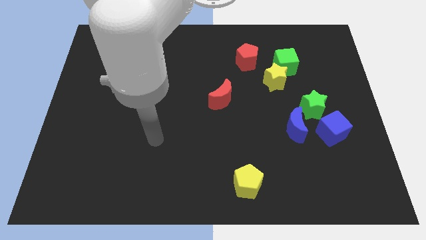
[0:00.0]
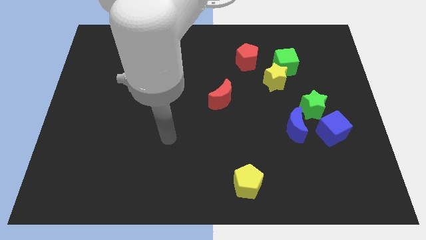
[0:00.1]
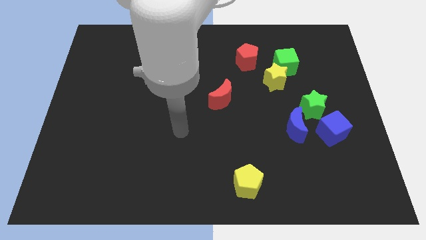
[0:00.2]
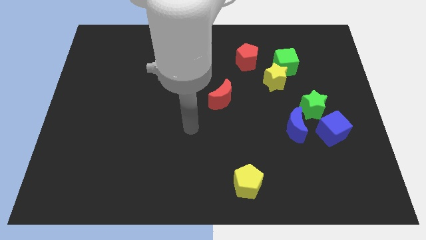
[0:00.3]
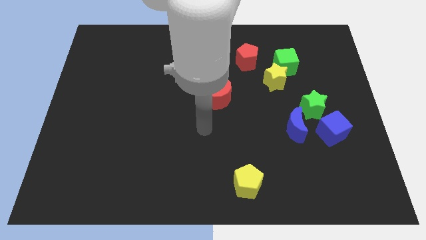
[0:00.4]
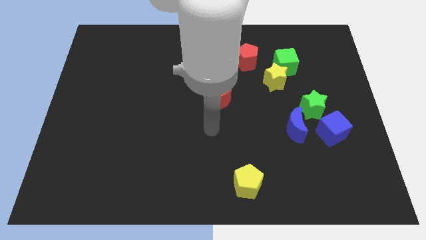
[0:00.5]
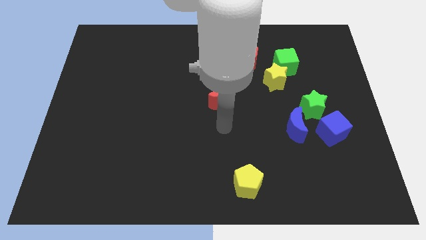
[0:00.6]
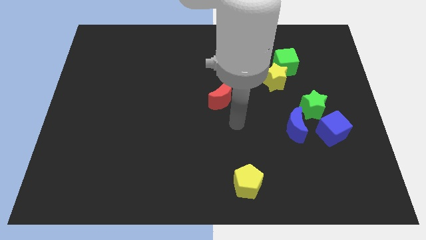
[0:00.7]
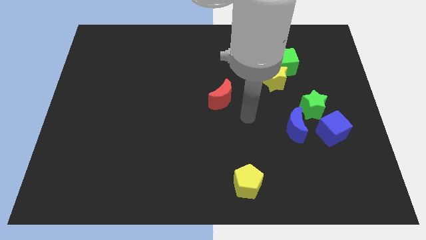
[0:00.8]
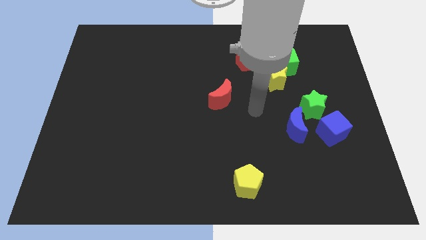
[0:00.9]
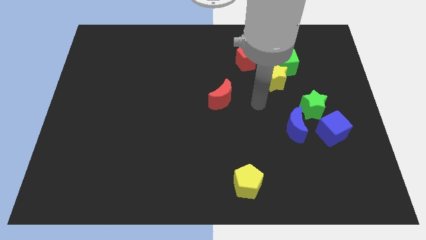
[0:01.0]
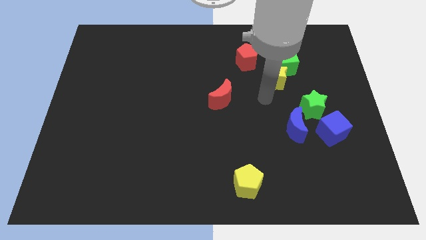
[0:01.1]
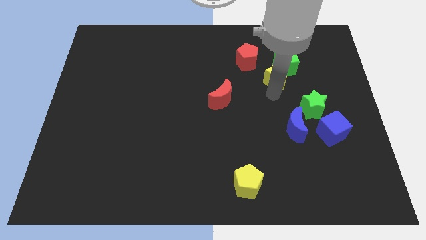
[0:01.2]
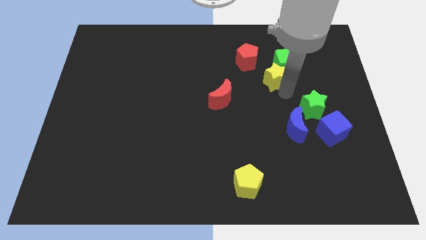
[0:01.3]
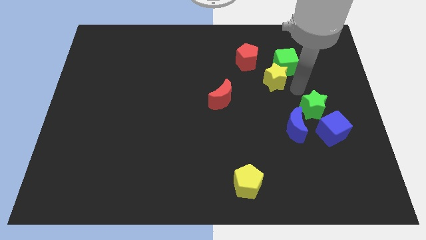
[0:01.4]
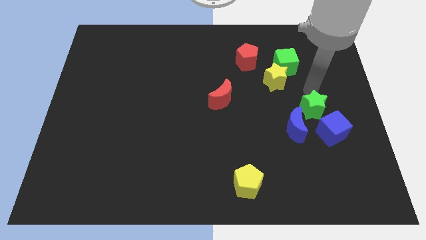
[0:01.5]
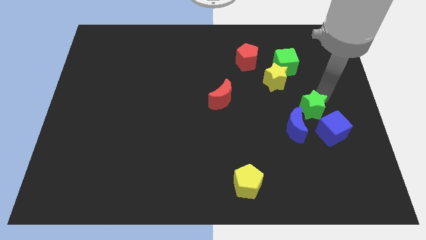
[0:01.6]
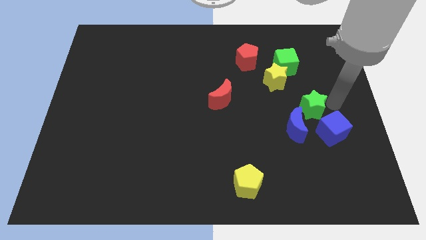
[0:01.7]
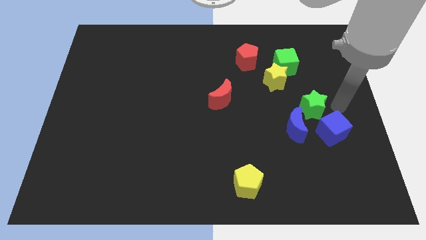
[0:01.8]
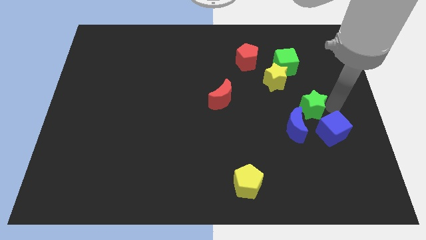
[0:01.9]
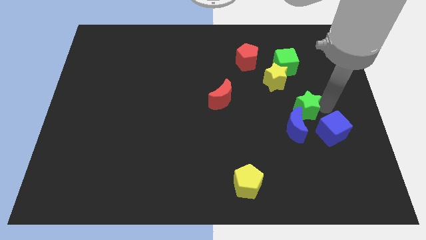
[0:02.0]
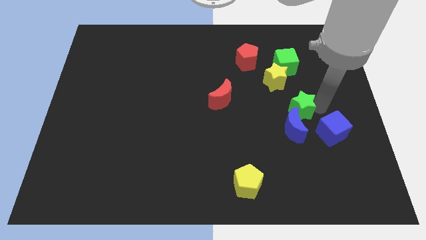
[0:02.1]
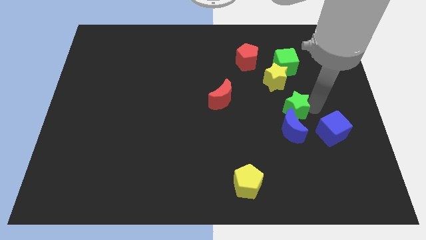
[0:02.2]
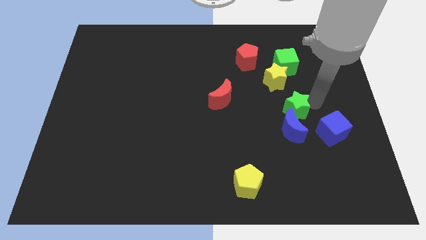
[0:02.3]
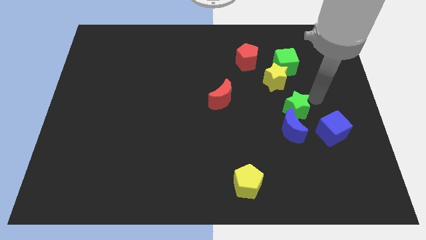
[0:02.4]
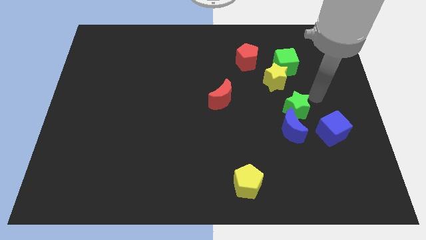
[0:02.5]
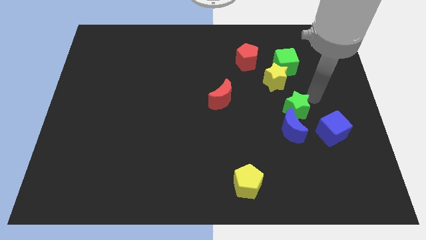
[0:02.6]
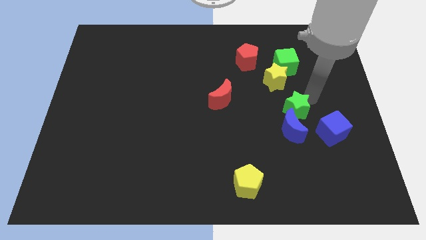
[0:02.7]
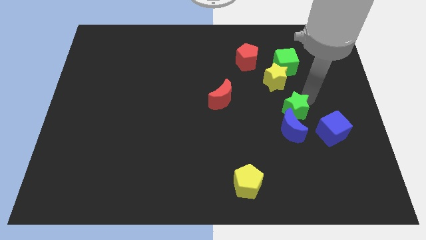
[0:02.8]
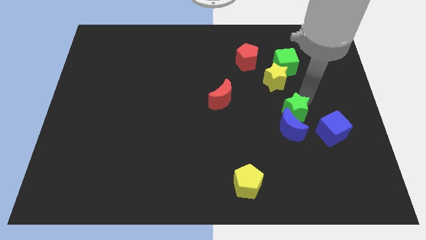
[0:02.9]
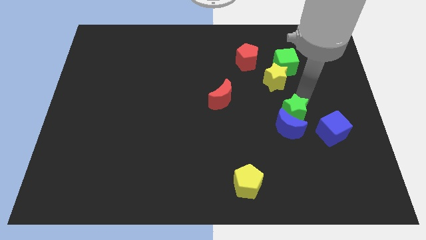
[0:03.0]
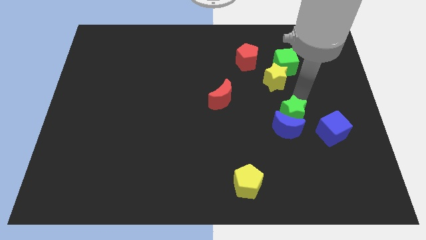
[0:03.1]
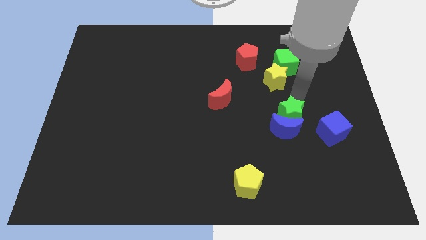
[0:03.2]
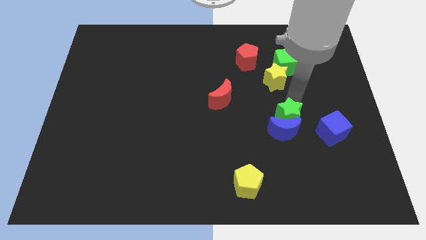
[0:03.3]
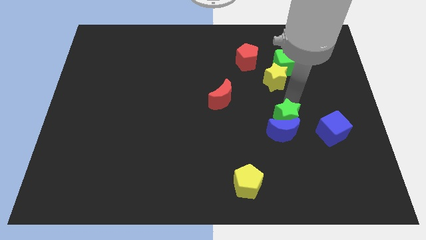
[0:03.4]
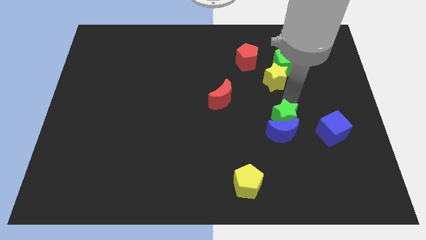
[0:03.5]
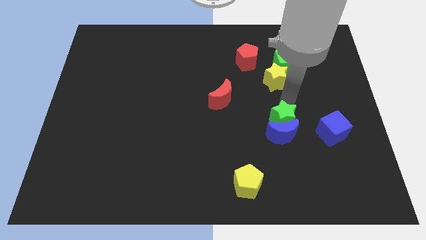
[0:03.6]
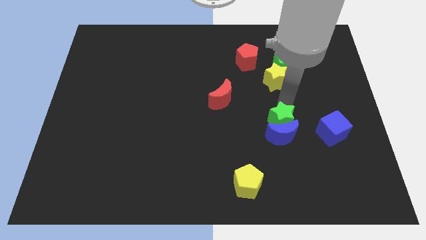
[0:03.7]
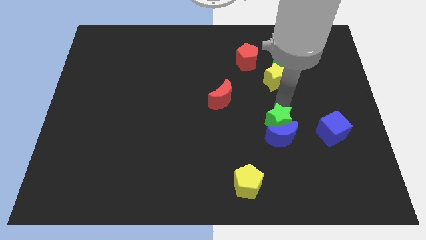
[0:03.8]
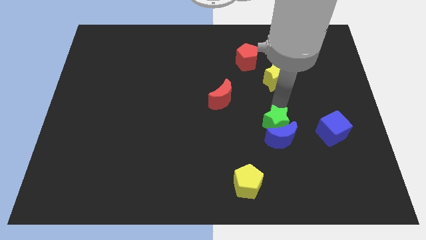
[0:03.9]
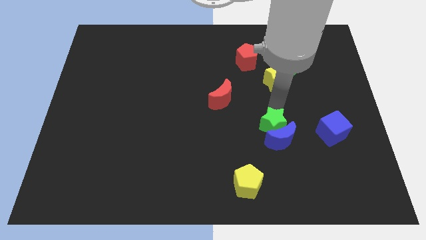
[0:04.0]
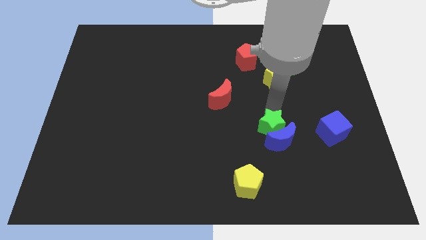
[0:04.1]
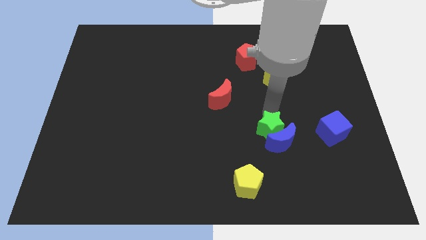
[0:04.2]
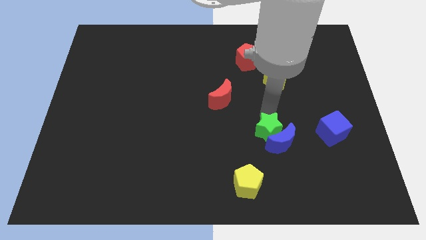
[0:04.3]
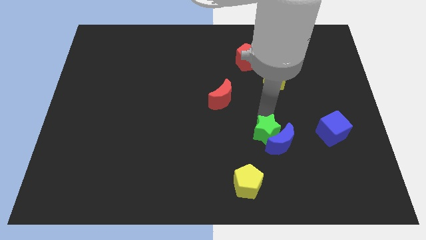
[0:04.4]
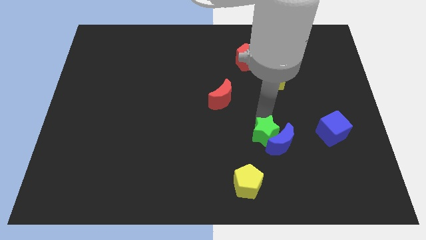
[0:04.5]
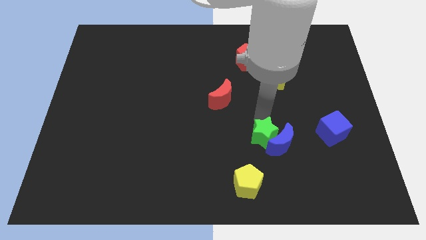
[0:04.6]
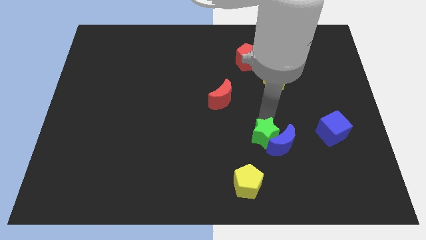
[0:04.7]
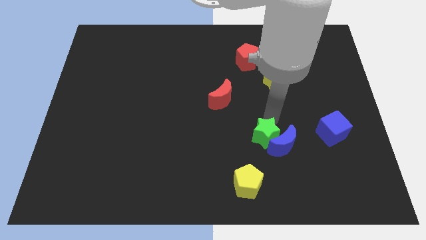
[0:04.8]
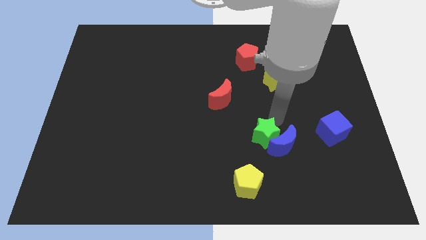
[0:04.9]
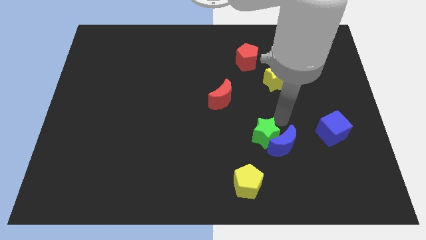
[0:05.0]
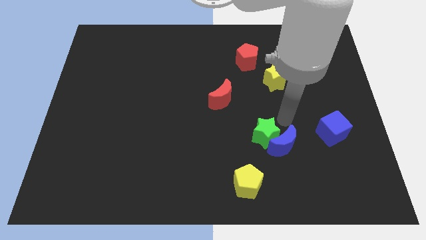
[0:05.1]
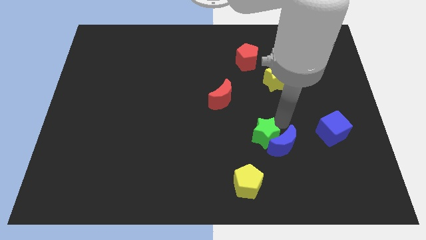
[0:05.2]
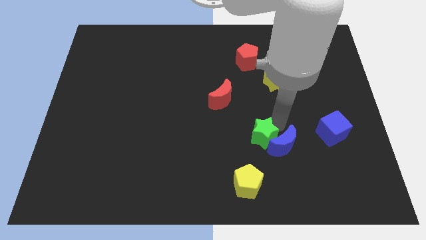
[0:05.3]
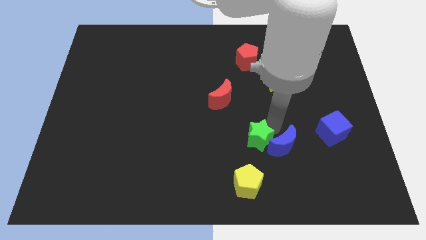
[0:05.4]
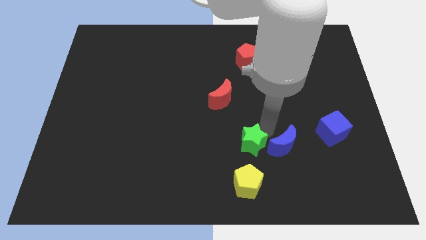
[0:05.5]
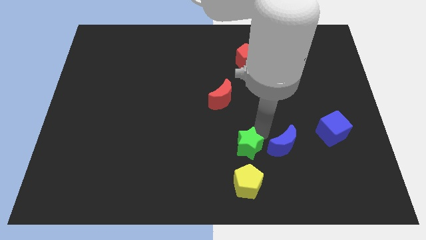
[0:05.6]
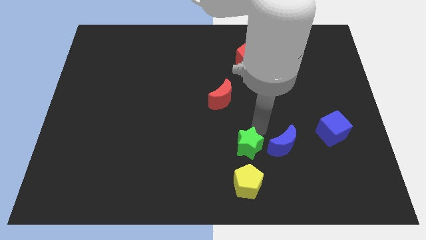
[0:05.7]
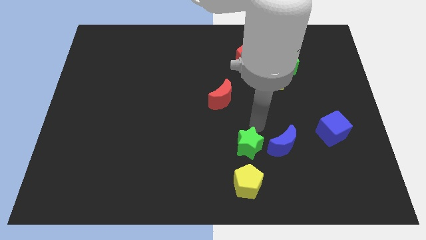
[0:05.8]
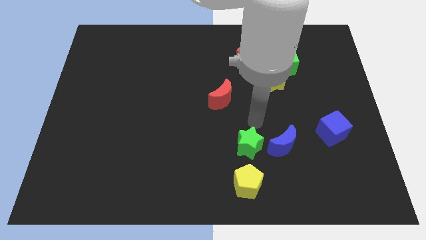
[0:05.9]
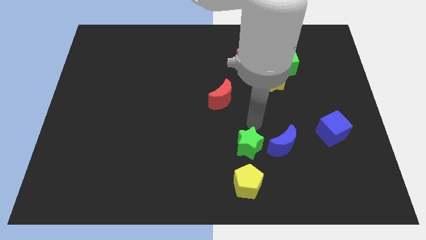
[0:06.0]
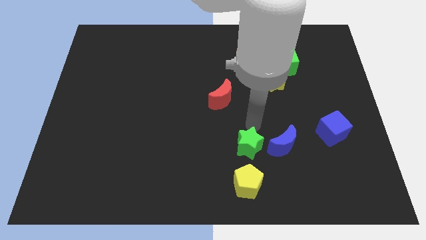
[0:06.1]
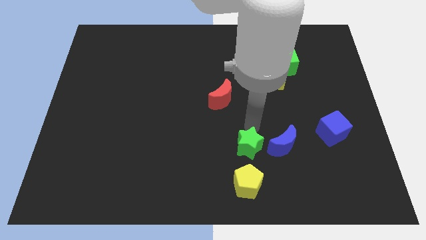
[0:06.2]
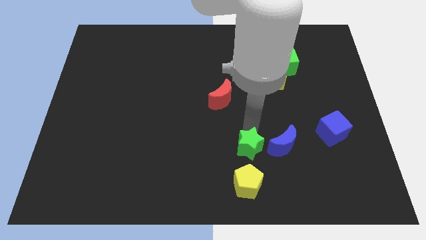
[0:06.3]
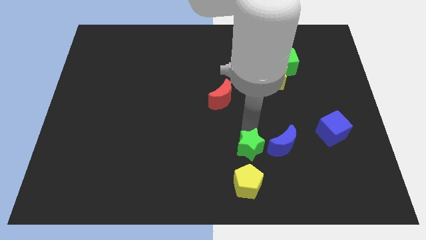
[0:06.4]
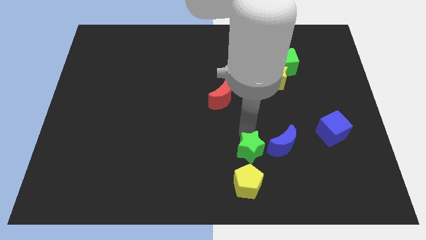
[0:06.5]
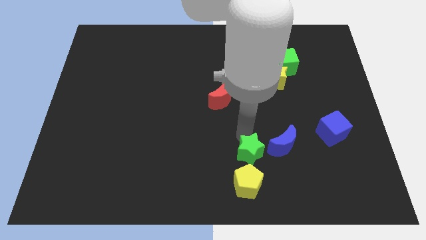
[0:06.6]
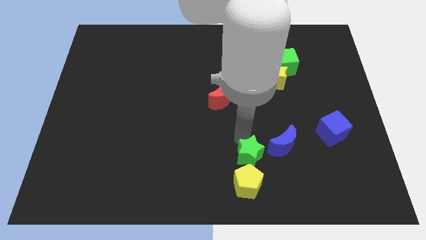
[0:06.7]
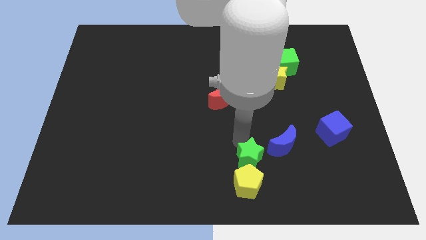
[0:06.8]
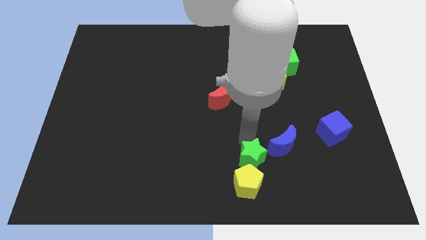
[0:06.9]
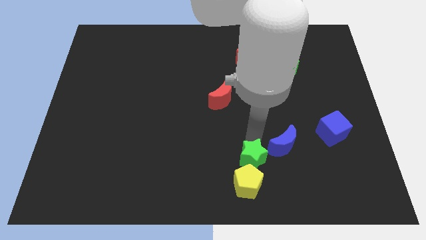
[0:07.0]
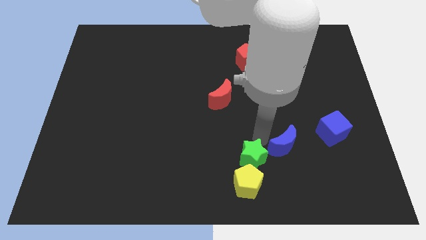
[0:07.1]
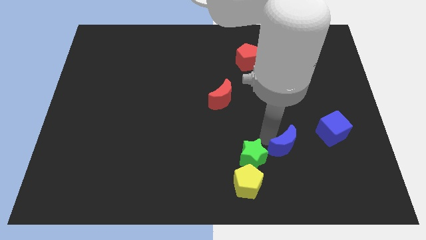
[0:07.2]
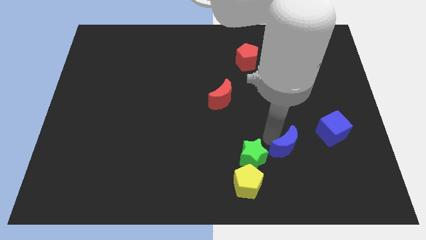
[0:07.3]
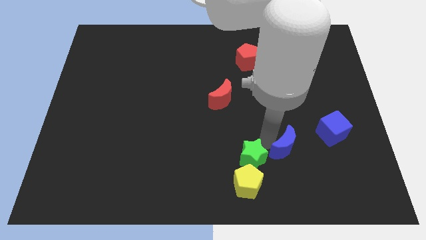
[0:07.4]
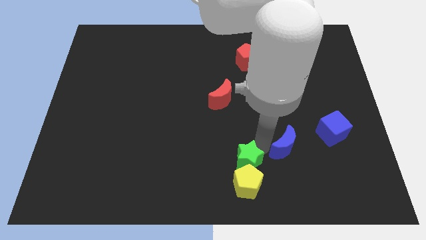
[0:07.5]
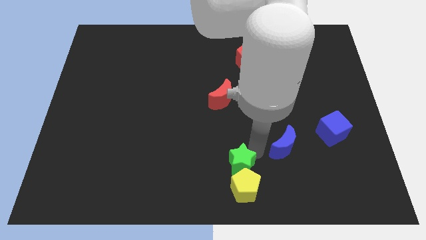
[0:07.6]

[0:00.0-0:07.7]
move the green star to the bottom side
